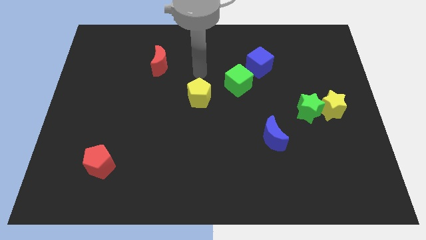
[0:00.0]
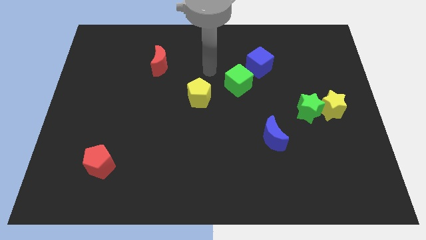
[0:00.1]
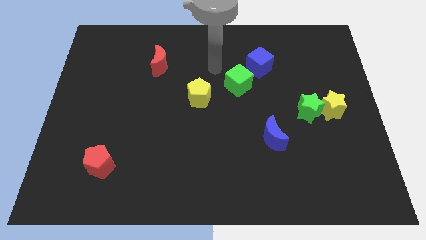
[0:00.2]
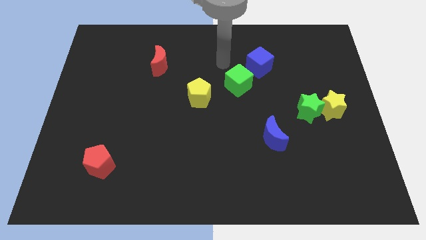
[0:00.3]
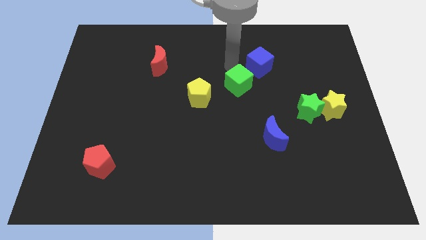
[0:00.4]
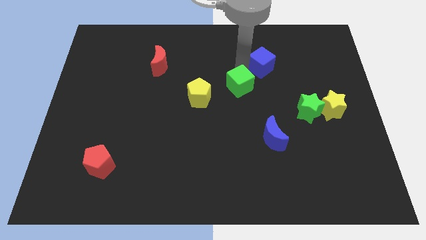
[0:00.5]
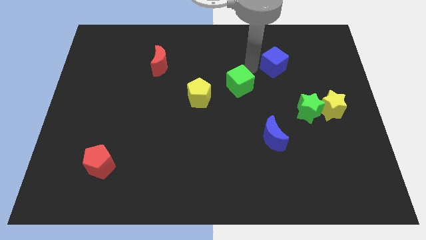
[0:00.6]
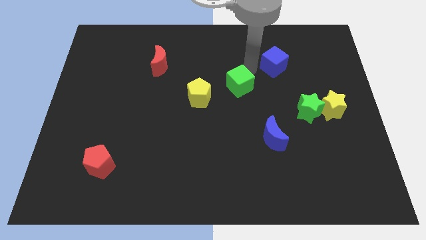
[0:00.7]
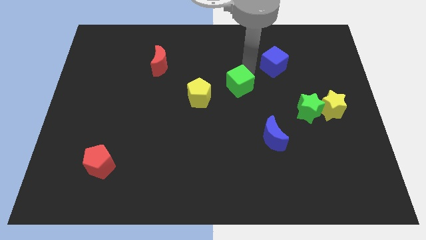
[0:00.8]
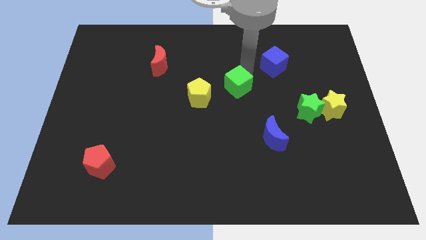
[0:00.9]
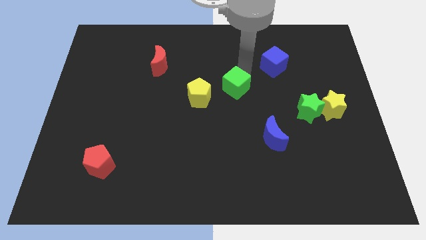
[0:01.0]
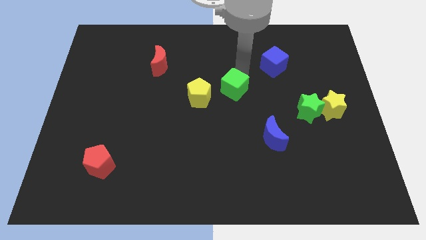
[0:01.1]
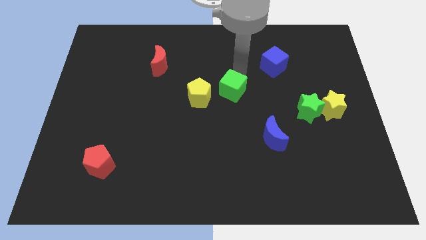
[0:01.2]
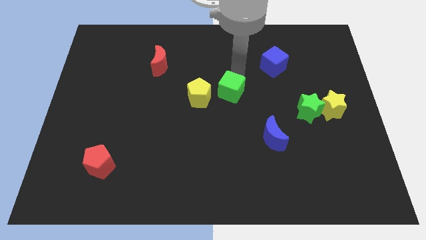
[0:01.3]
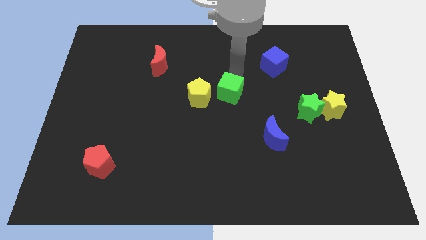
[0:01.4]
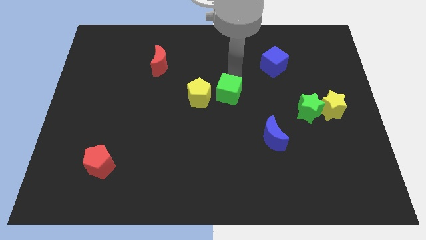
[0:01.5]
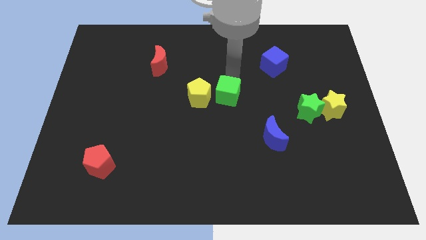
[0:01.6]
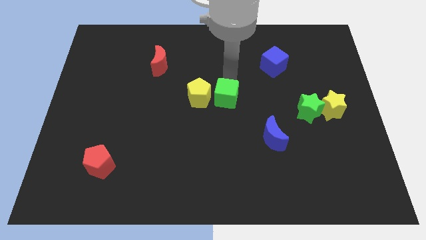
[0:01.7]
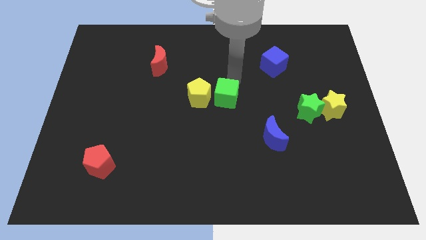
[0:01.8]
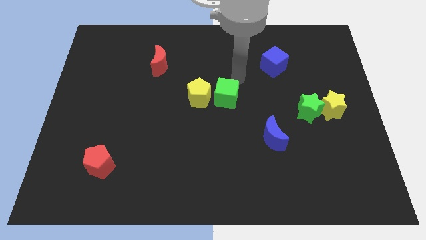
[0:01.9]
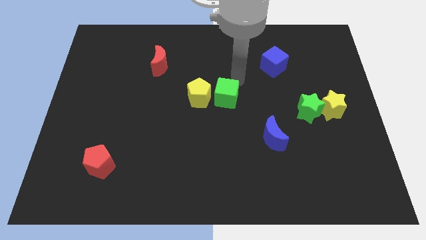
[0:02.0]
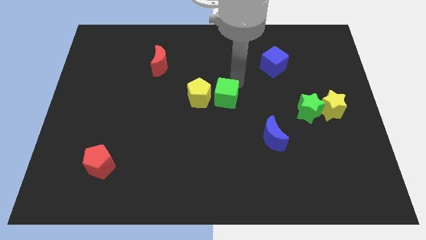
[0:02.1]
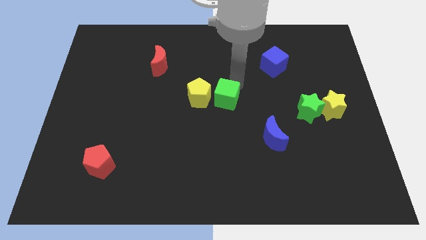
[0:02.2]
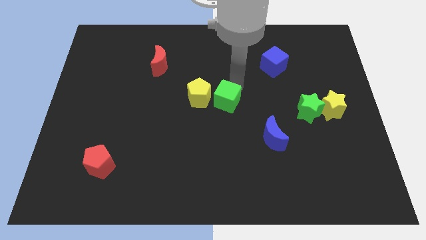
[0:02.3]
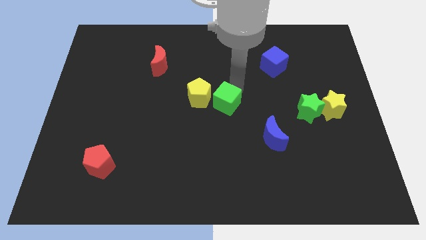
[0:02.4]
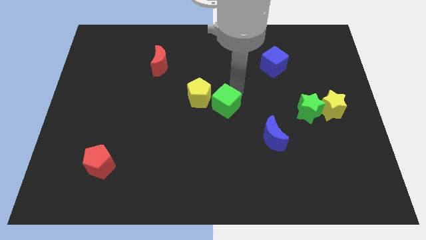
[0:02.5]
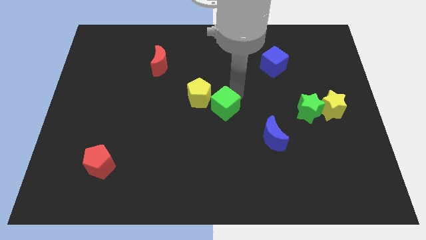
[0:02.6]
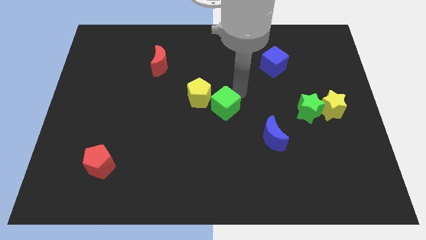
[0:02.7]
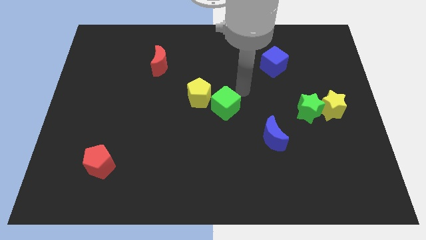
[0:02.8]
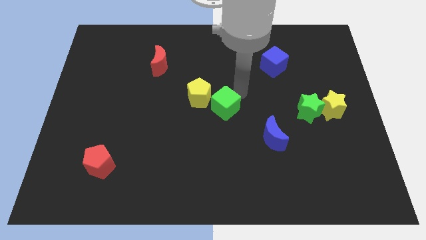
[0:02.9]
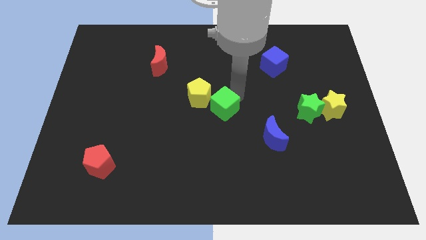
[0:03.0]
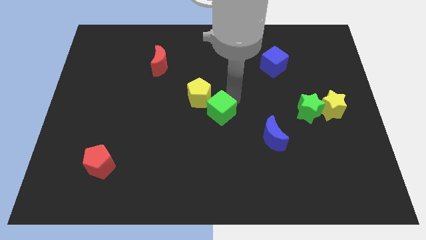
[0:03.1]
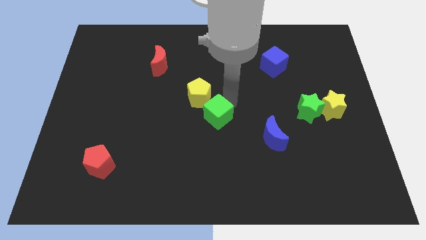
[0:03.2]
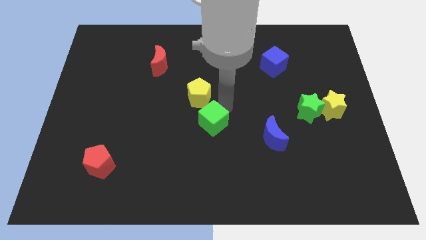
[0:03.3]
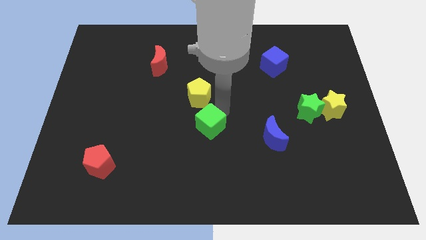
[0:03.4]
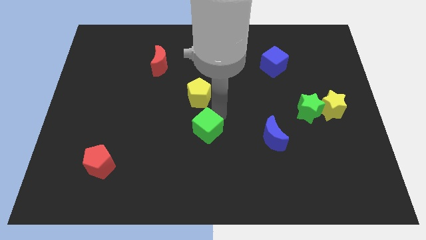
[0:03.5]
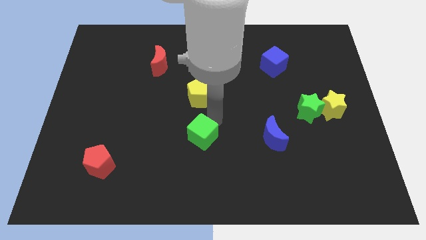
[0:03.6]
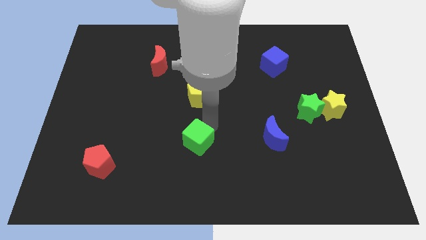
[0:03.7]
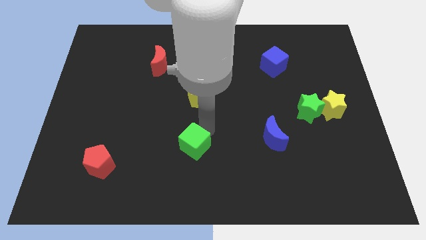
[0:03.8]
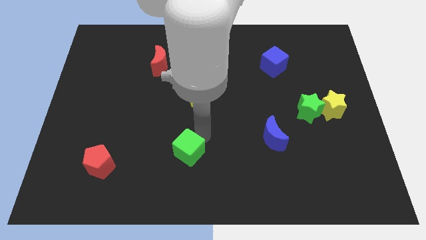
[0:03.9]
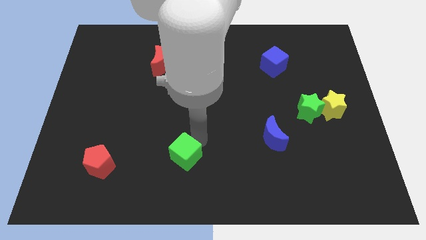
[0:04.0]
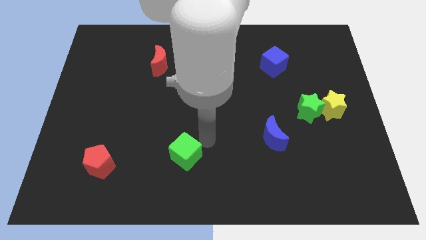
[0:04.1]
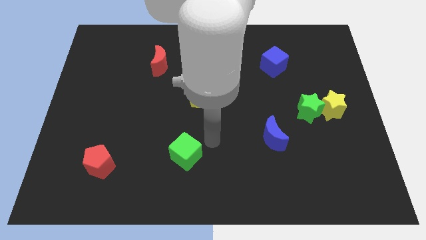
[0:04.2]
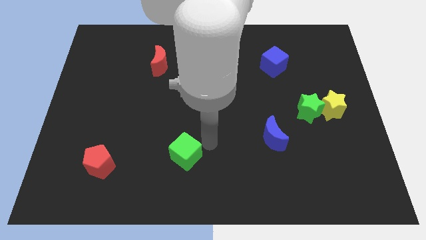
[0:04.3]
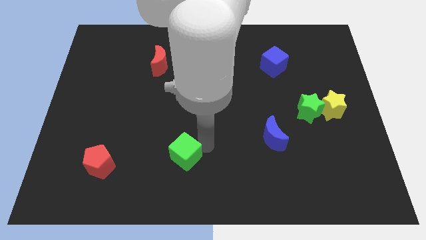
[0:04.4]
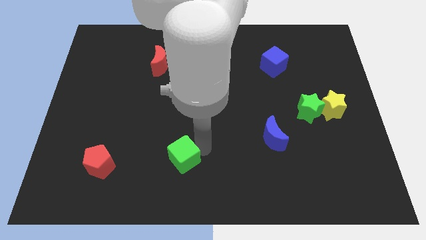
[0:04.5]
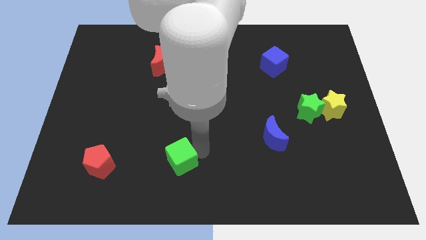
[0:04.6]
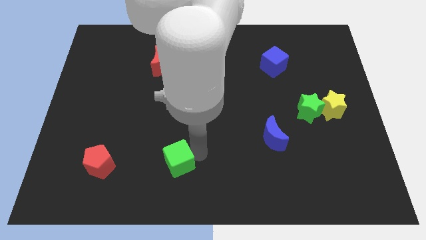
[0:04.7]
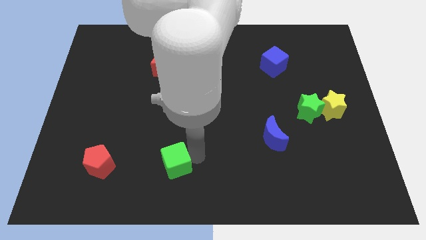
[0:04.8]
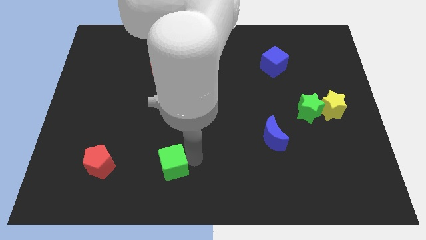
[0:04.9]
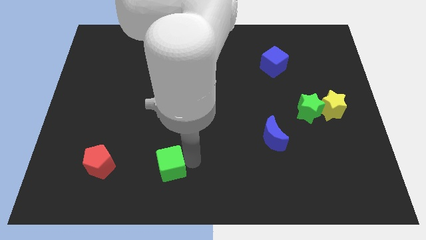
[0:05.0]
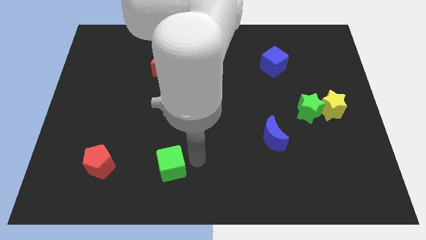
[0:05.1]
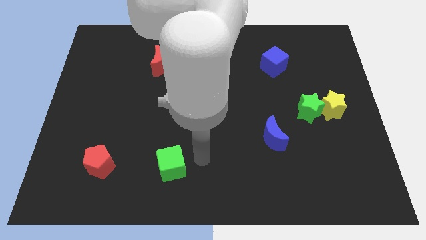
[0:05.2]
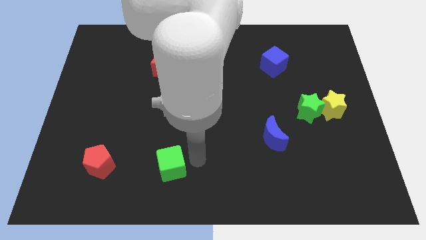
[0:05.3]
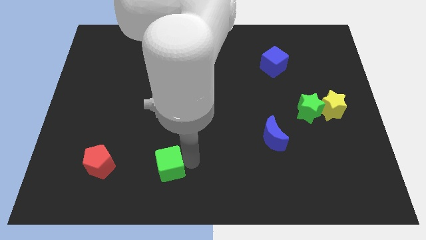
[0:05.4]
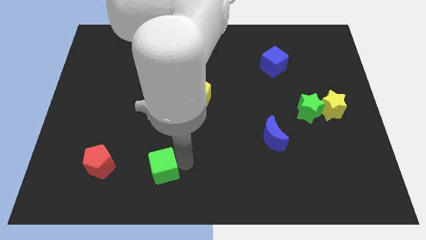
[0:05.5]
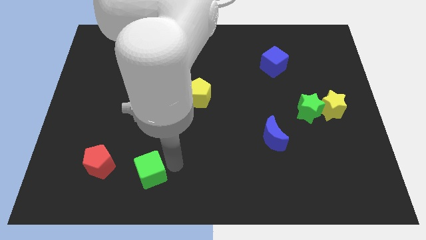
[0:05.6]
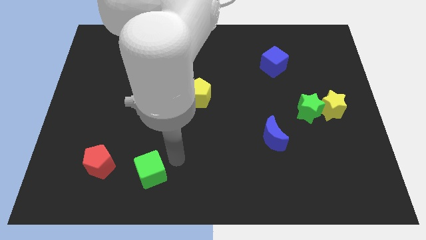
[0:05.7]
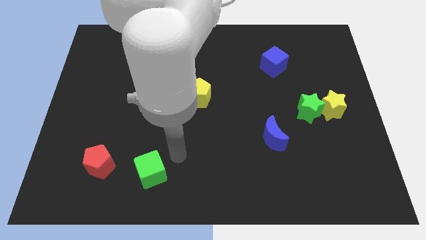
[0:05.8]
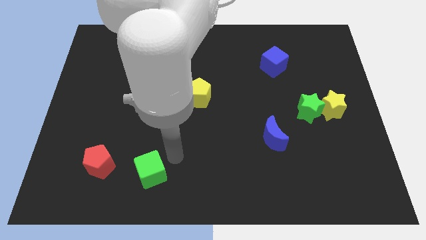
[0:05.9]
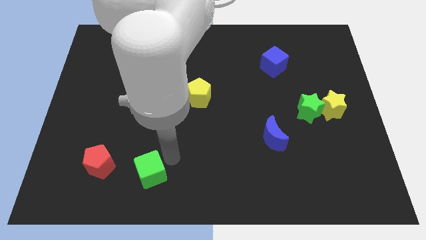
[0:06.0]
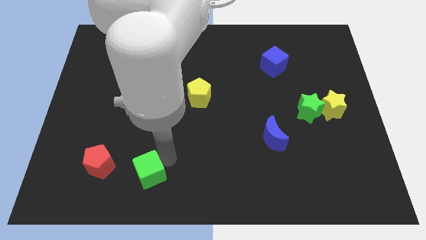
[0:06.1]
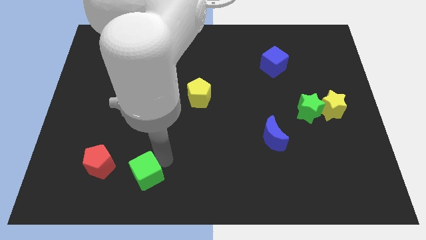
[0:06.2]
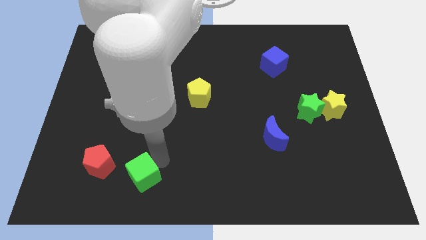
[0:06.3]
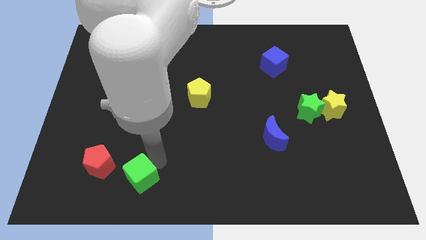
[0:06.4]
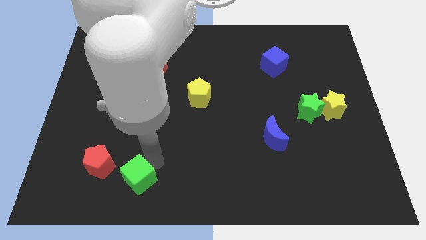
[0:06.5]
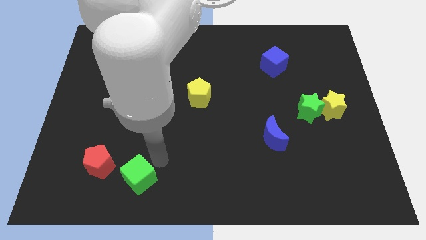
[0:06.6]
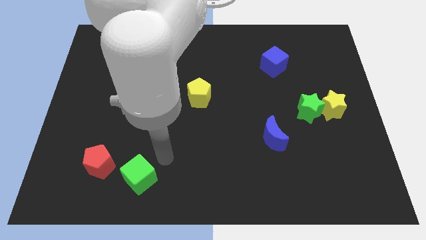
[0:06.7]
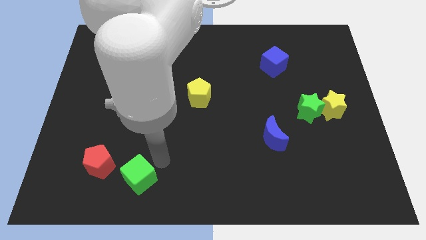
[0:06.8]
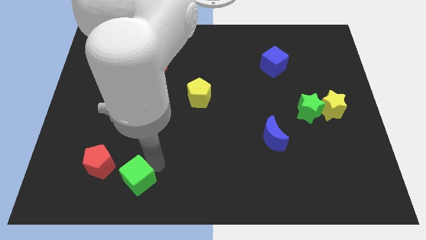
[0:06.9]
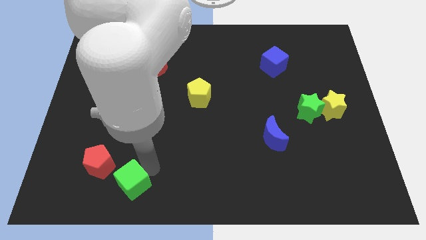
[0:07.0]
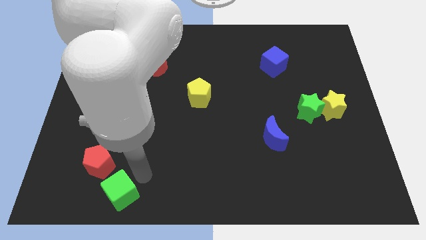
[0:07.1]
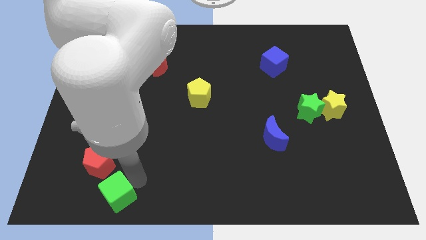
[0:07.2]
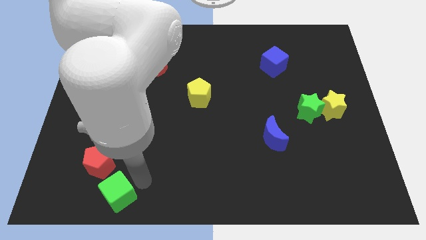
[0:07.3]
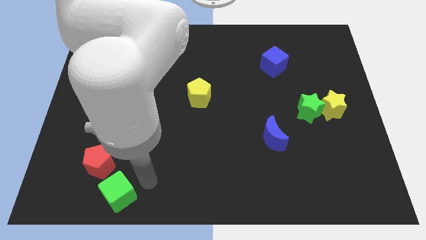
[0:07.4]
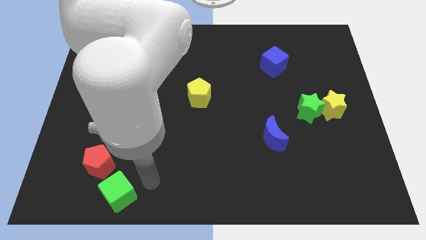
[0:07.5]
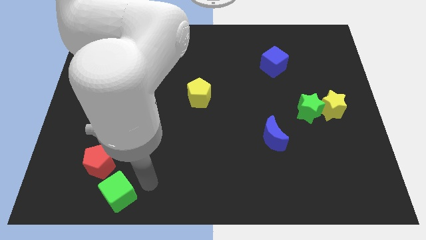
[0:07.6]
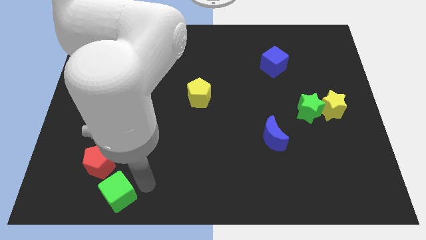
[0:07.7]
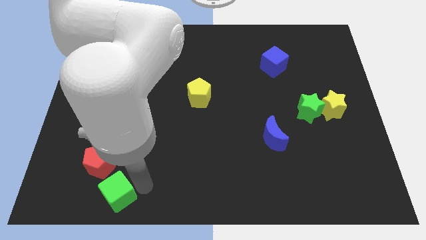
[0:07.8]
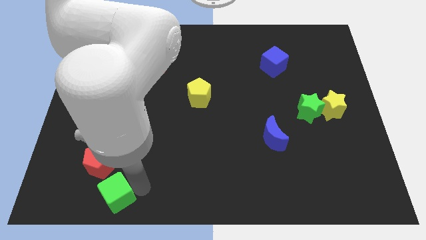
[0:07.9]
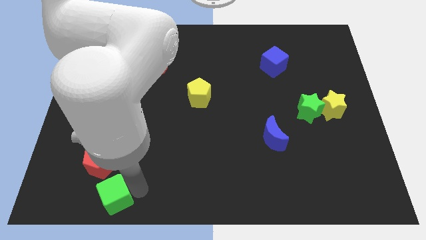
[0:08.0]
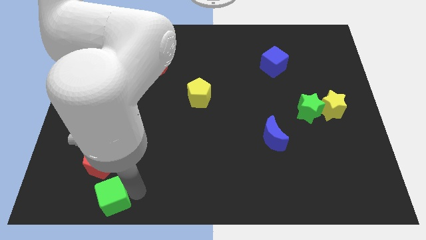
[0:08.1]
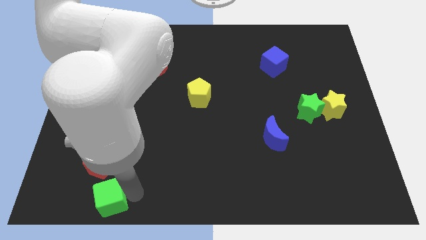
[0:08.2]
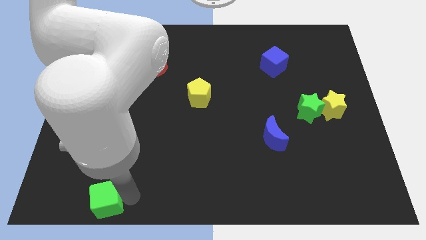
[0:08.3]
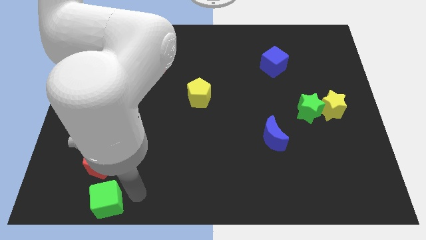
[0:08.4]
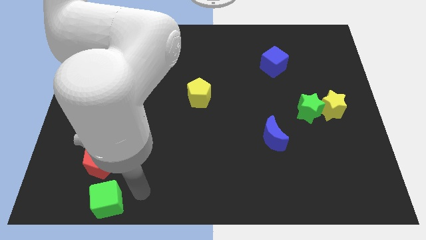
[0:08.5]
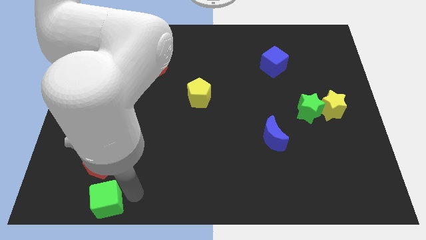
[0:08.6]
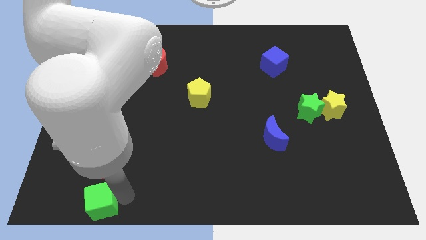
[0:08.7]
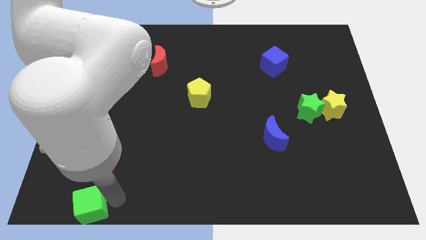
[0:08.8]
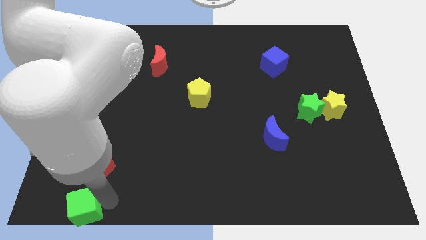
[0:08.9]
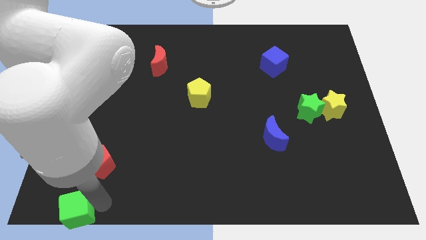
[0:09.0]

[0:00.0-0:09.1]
slide the green cube to the bottom left corner
